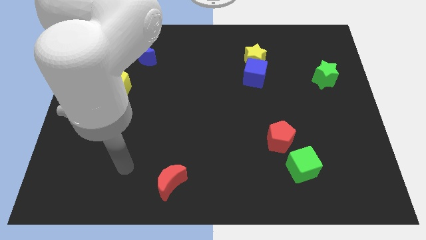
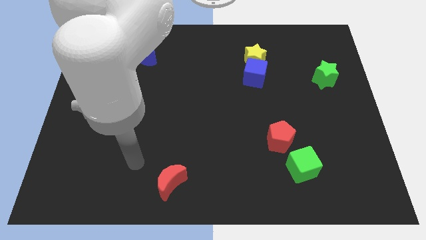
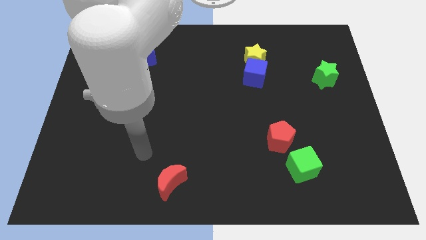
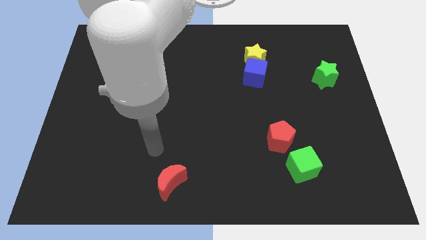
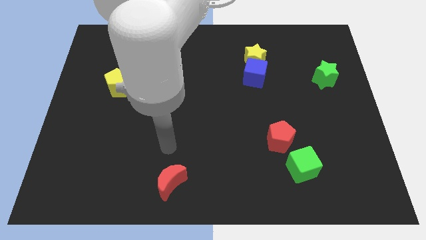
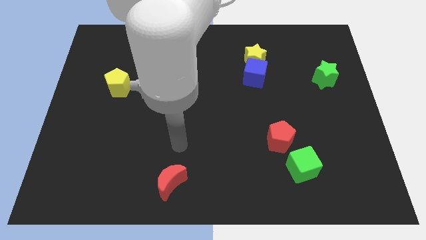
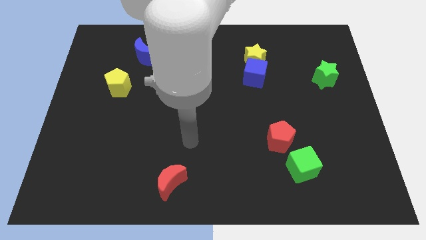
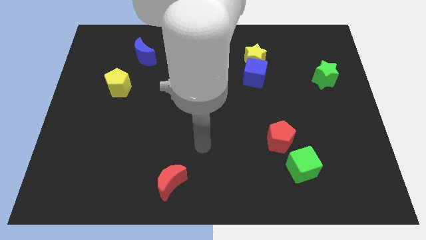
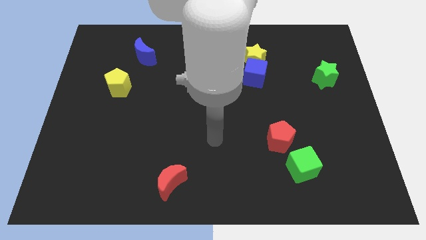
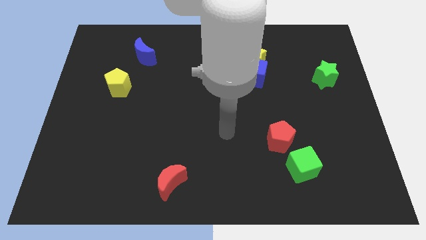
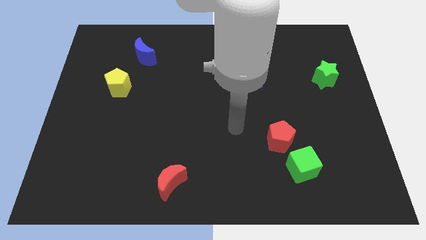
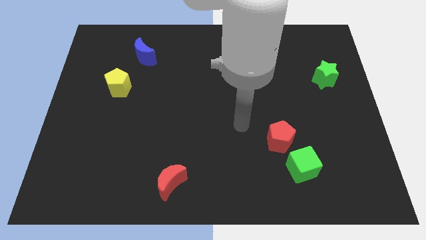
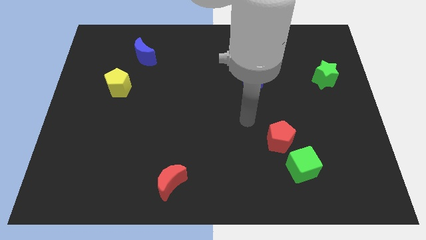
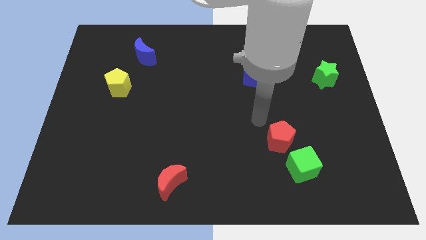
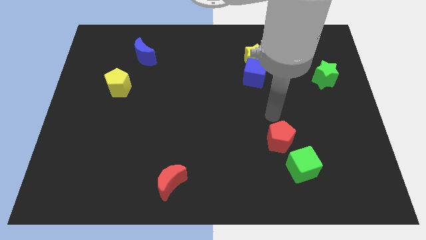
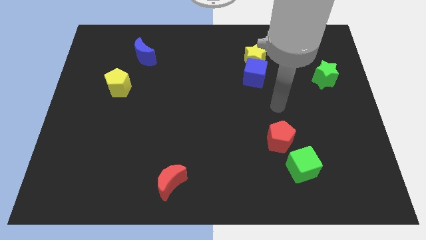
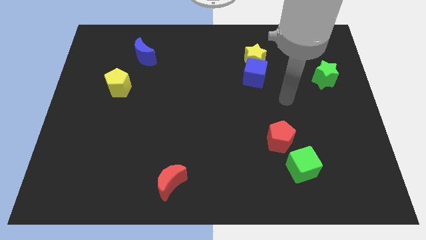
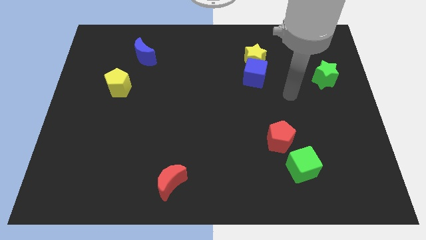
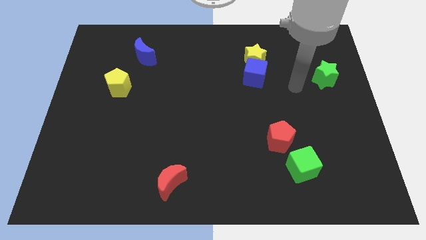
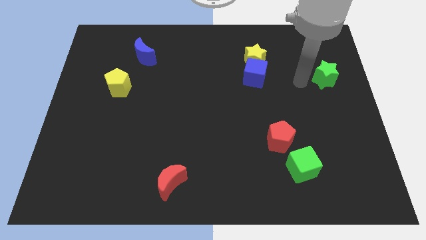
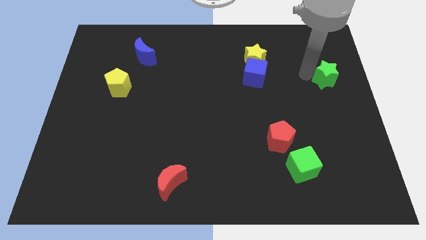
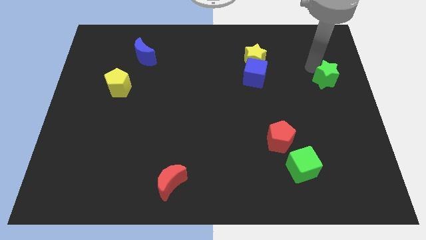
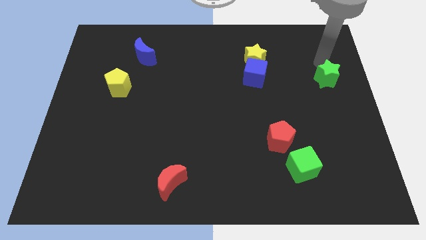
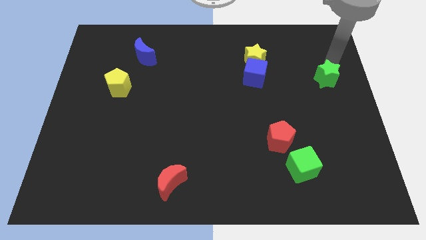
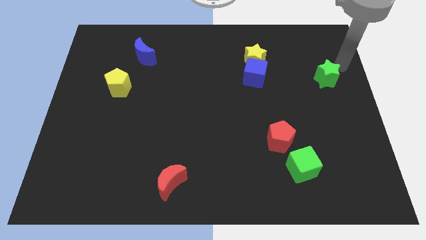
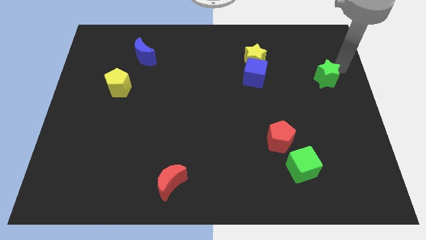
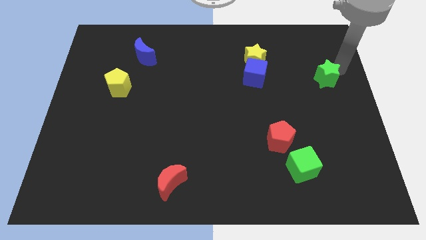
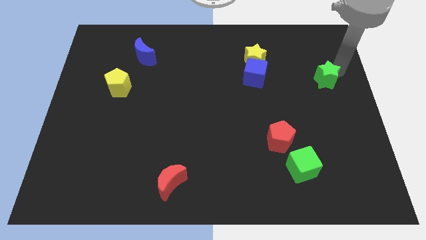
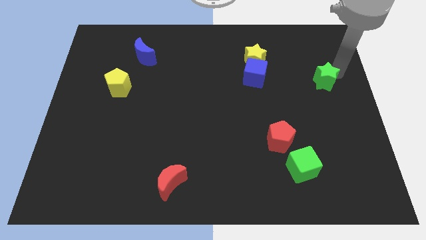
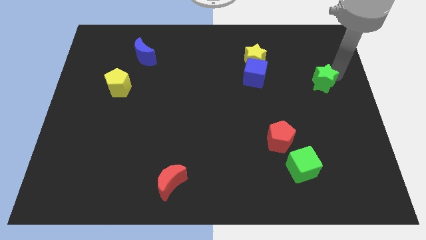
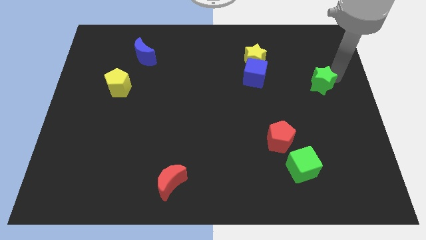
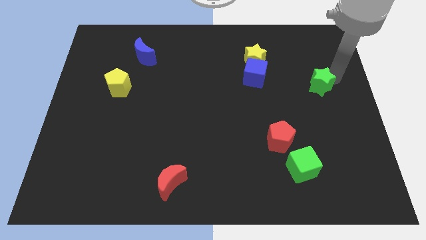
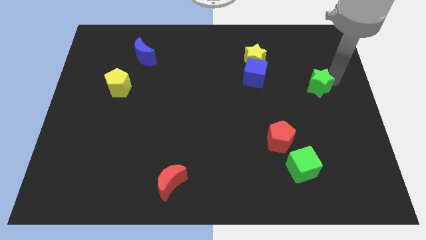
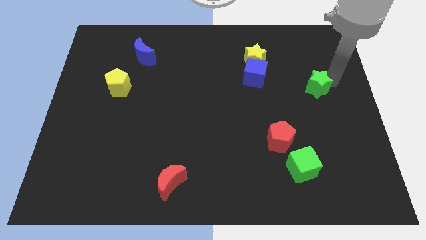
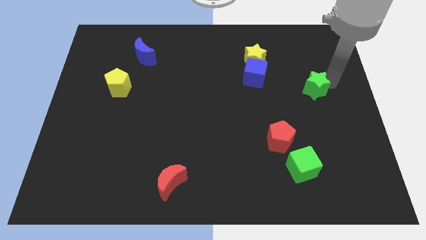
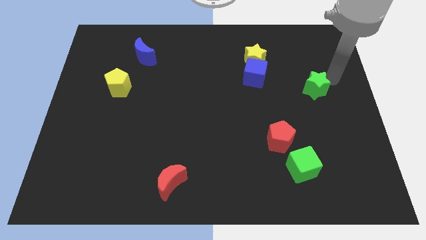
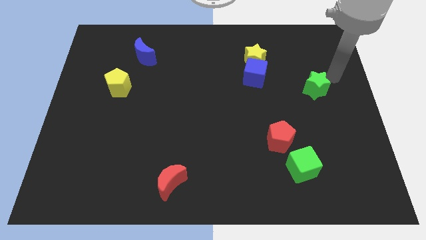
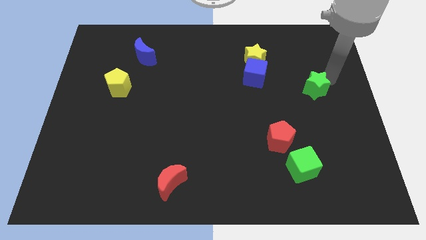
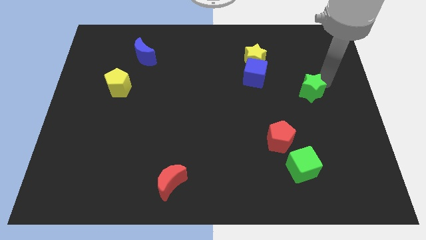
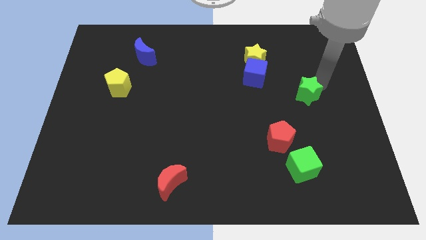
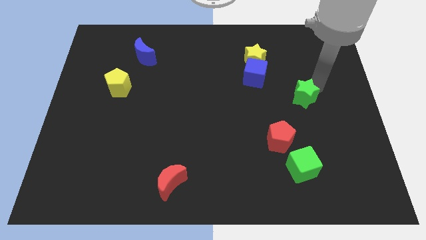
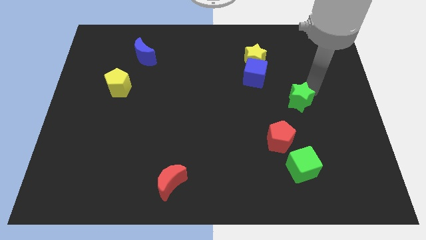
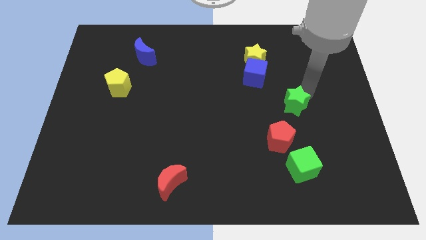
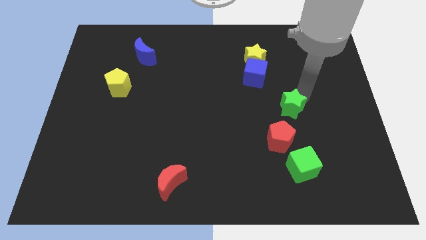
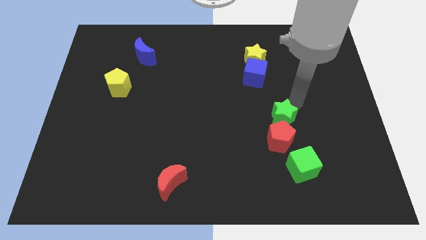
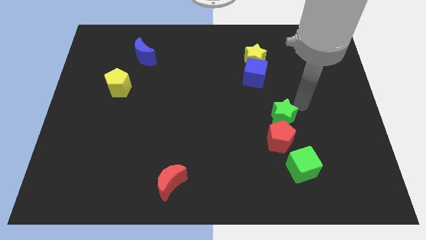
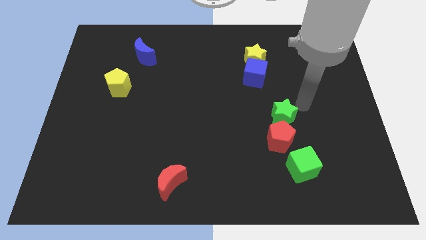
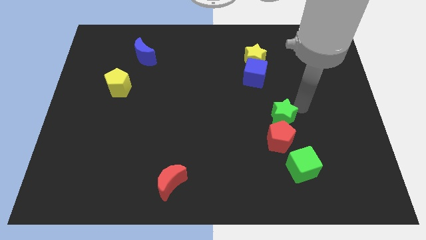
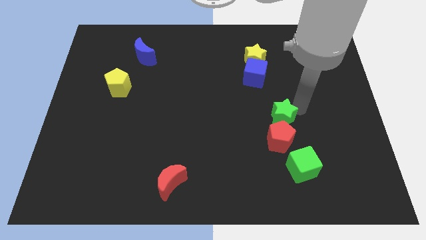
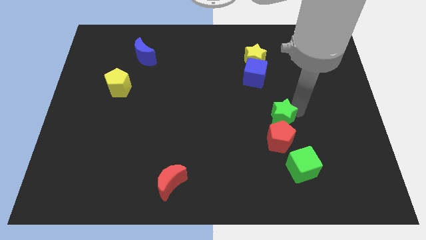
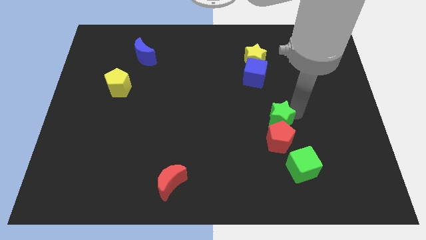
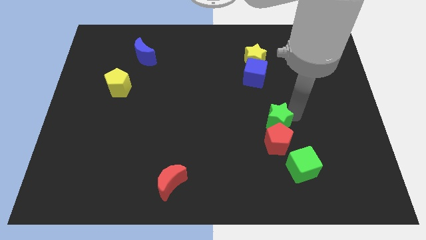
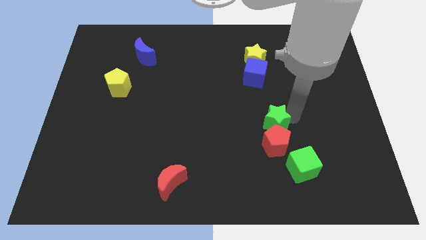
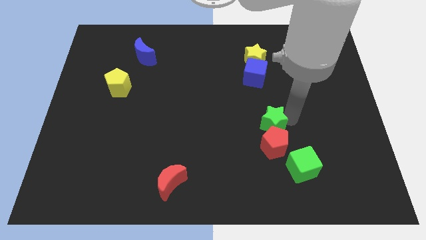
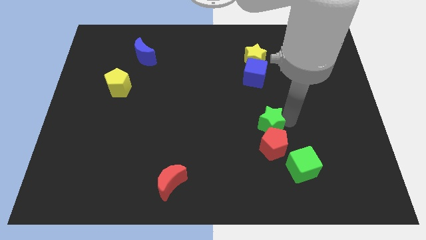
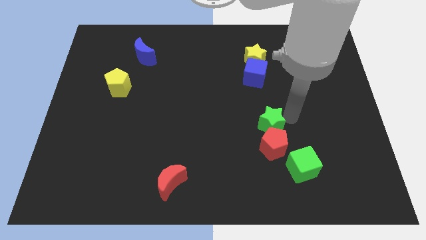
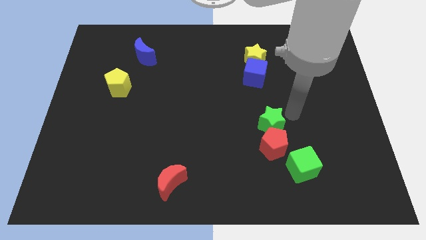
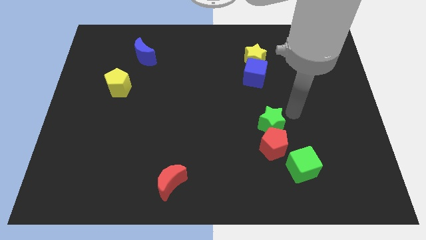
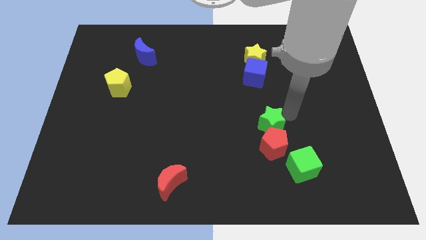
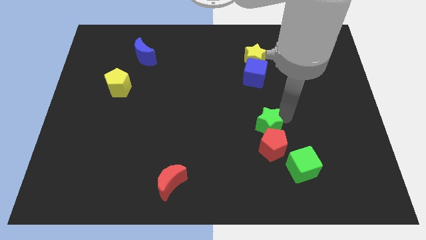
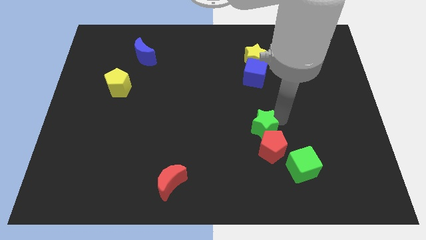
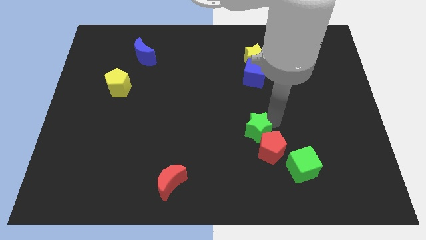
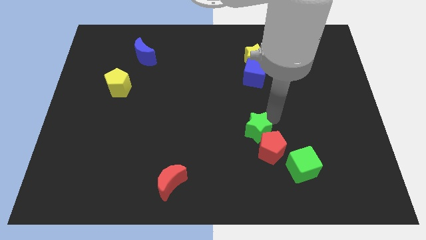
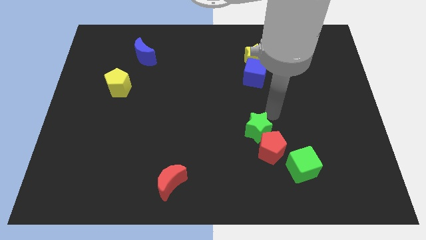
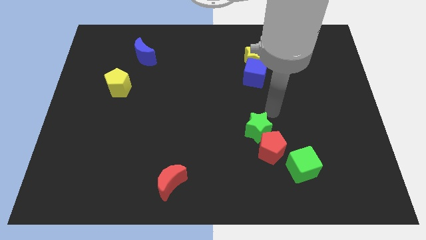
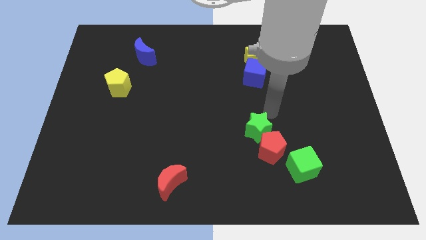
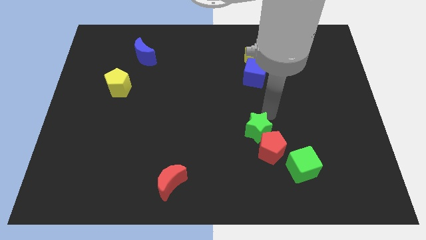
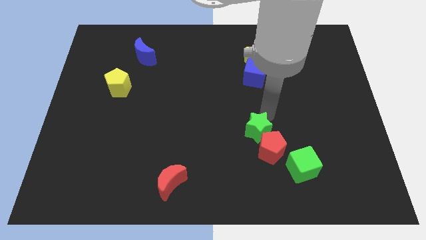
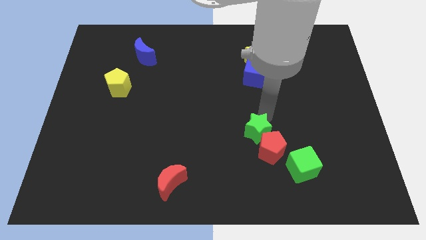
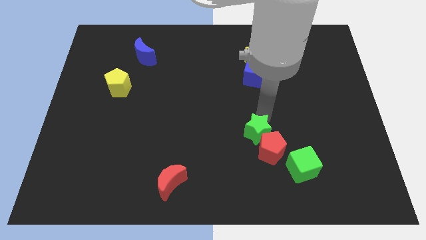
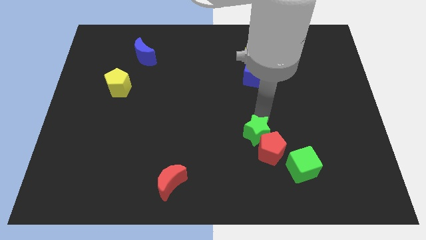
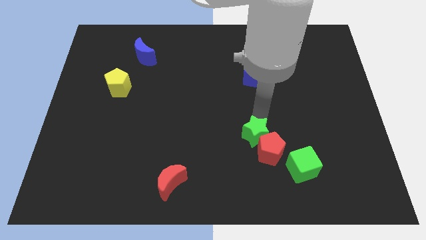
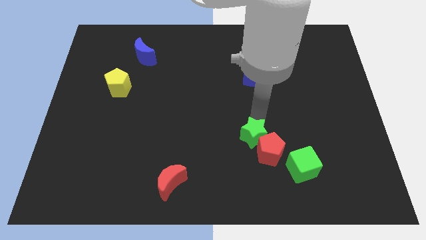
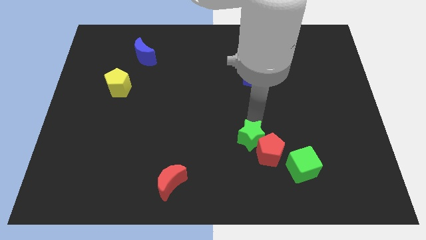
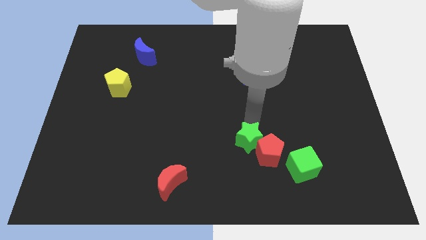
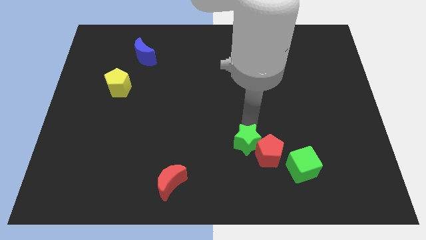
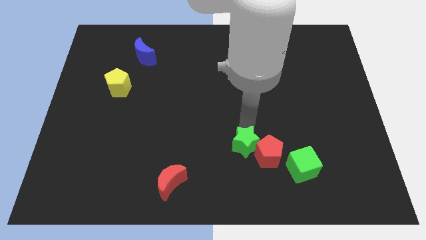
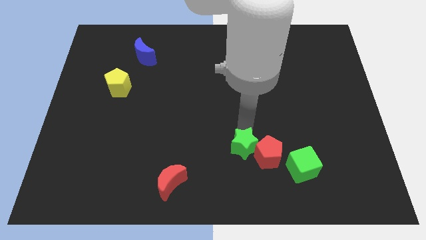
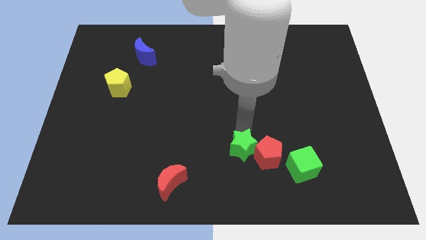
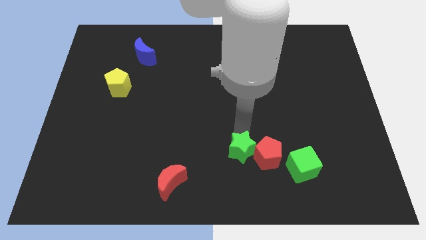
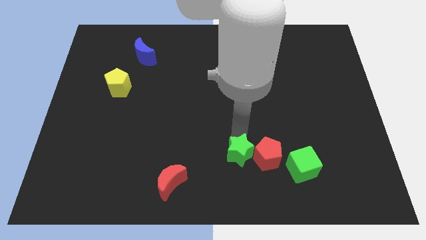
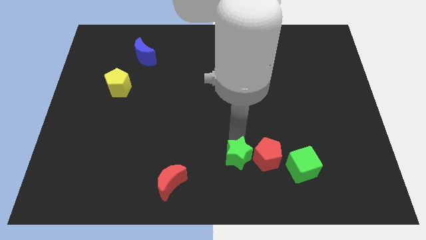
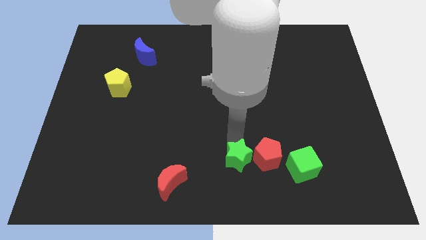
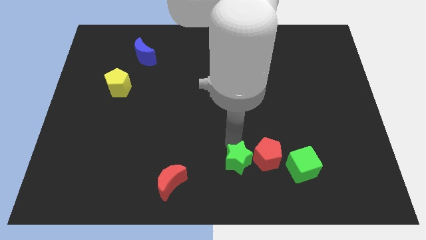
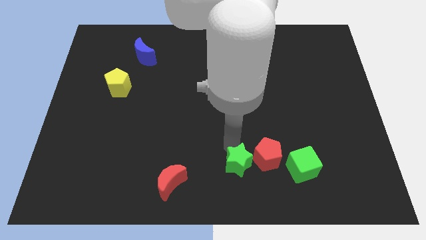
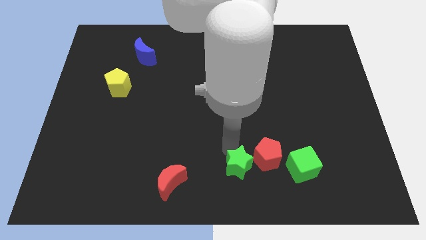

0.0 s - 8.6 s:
put the green star to the right of the red moon
